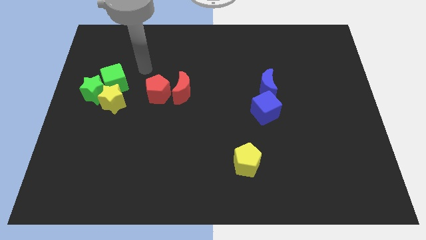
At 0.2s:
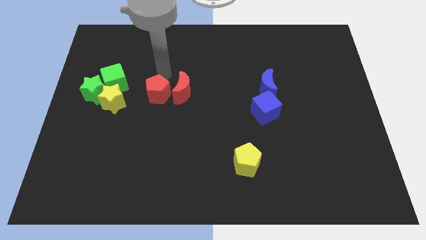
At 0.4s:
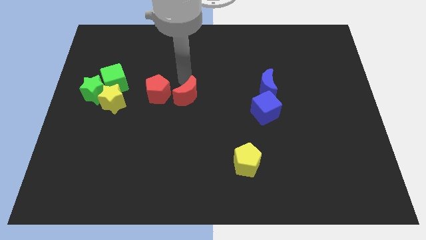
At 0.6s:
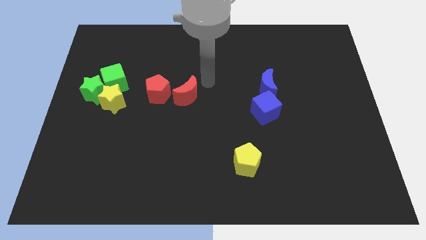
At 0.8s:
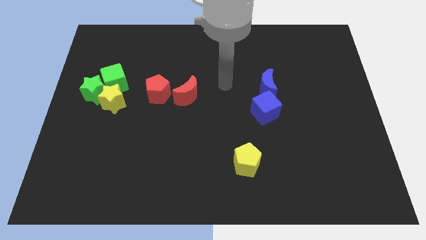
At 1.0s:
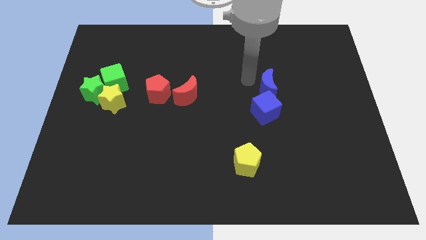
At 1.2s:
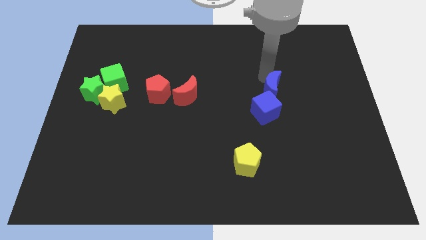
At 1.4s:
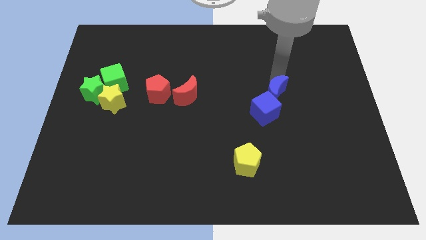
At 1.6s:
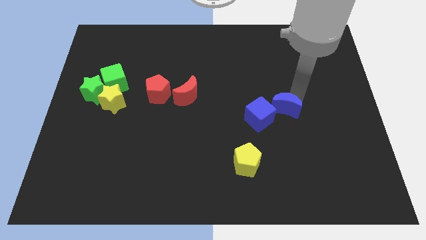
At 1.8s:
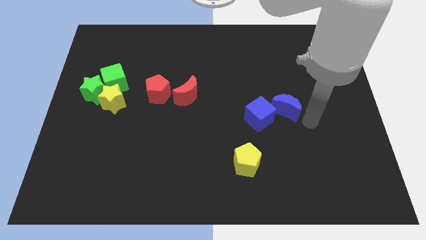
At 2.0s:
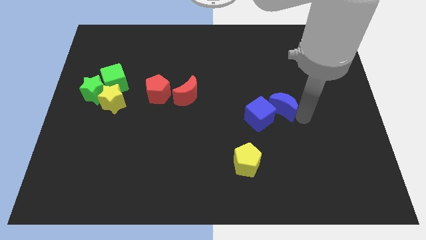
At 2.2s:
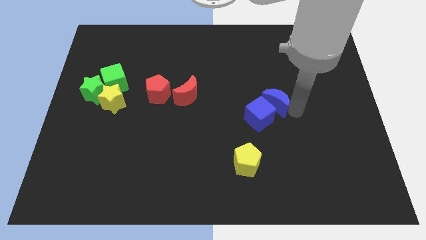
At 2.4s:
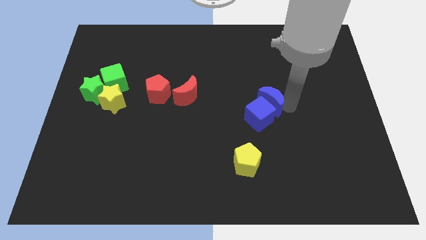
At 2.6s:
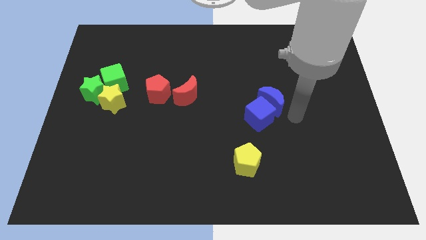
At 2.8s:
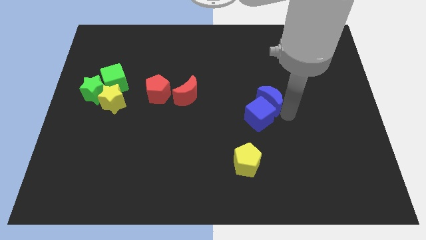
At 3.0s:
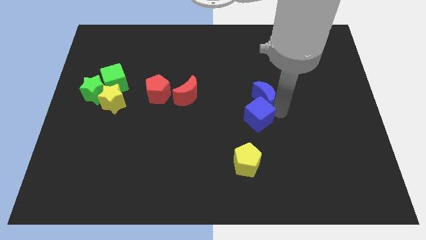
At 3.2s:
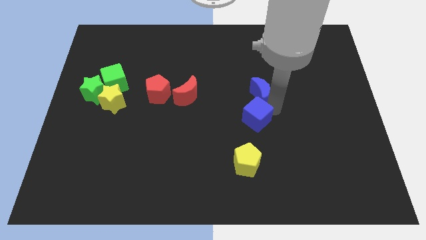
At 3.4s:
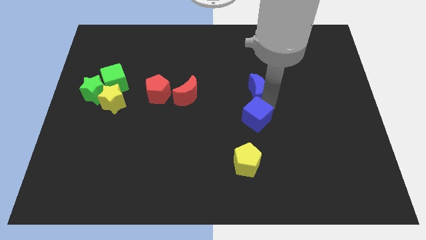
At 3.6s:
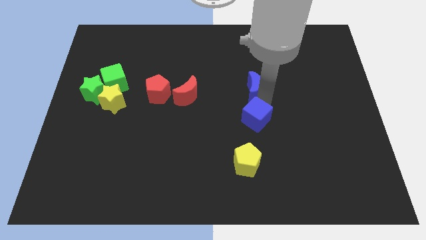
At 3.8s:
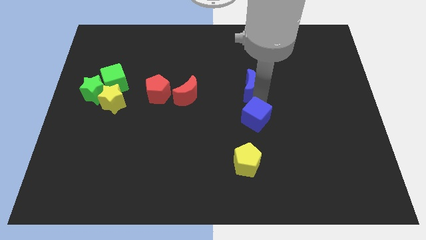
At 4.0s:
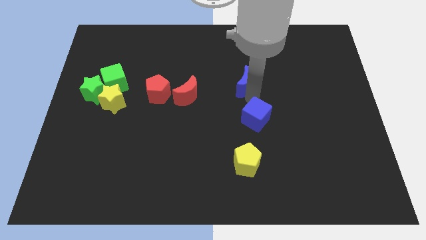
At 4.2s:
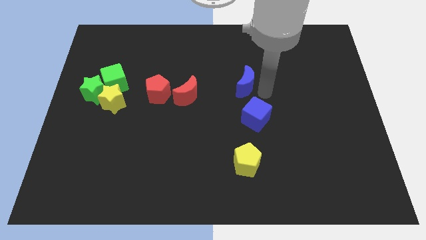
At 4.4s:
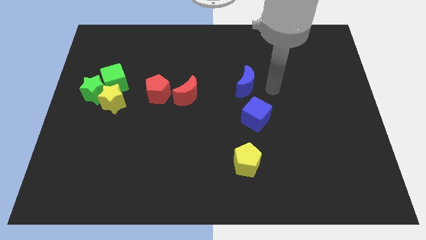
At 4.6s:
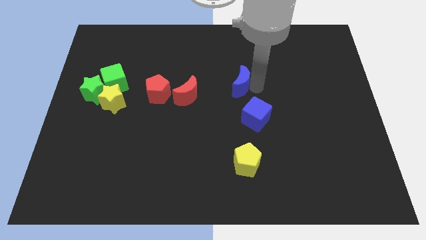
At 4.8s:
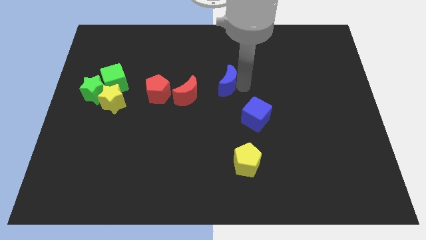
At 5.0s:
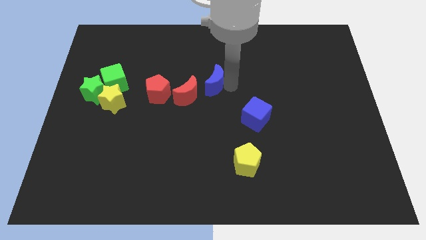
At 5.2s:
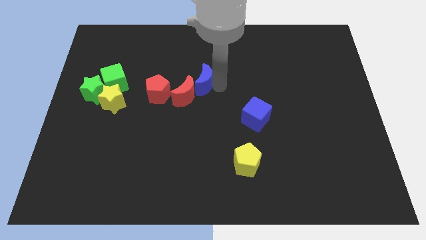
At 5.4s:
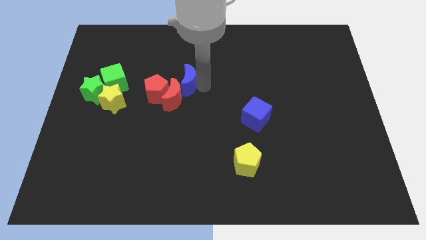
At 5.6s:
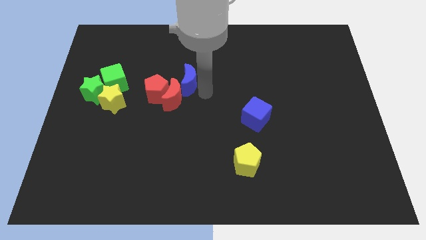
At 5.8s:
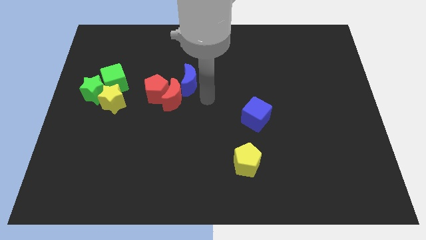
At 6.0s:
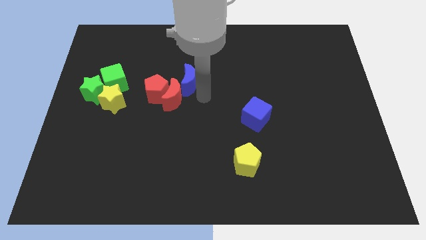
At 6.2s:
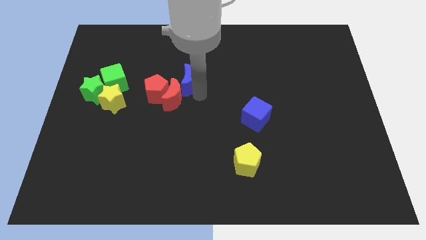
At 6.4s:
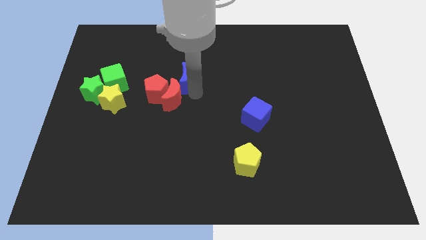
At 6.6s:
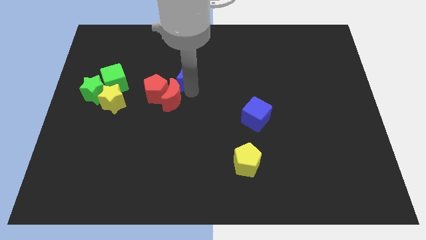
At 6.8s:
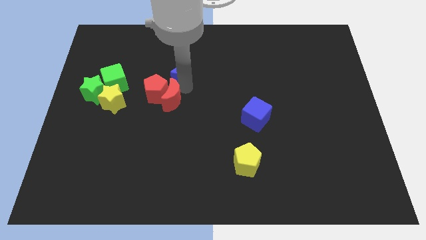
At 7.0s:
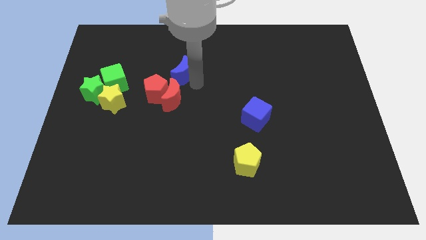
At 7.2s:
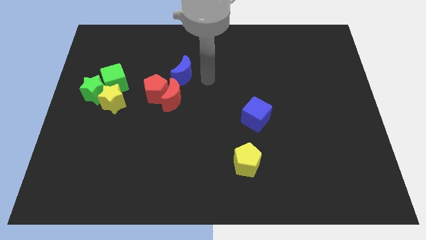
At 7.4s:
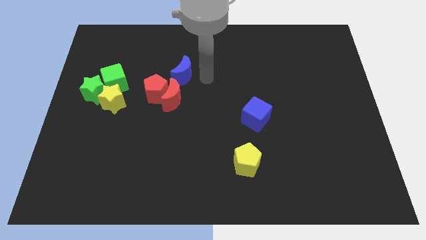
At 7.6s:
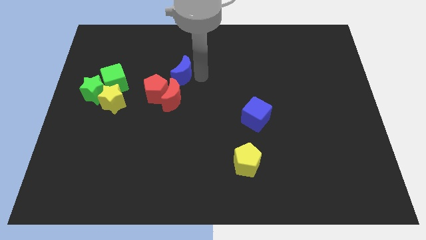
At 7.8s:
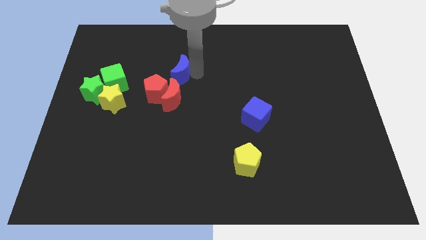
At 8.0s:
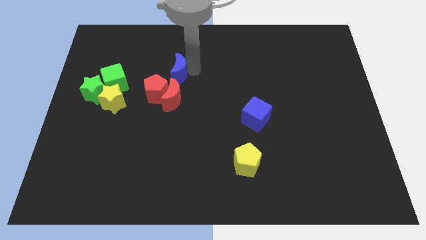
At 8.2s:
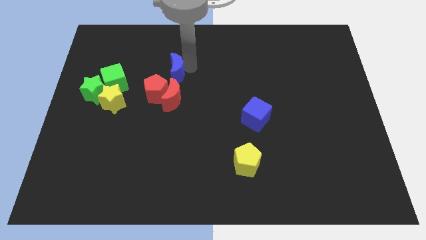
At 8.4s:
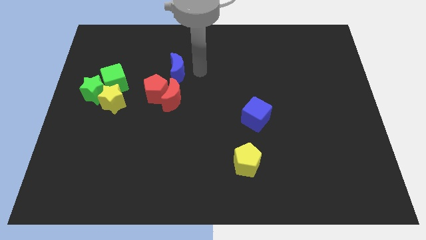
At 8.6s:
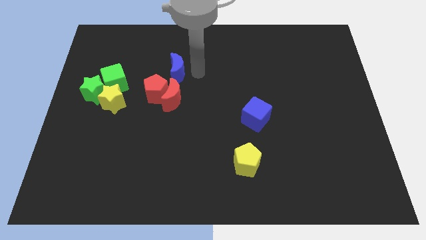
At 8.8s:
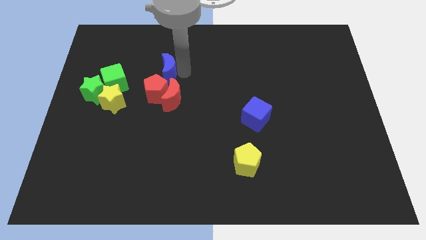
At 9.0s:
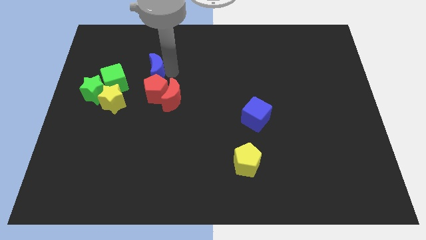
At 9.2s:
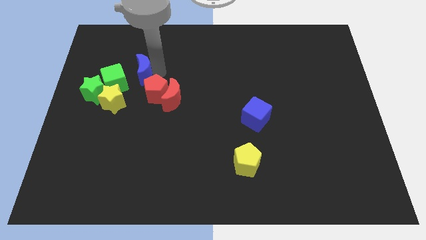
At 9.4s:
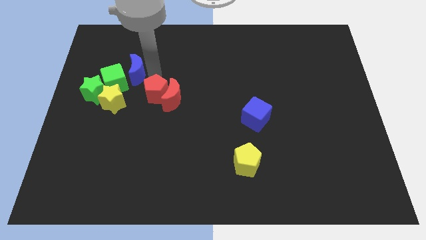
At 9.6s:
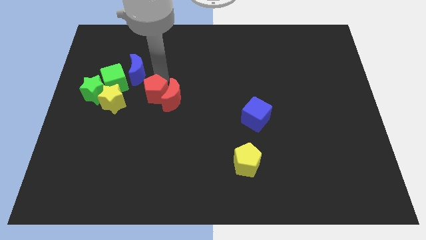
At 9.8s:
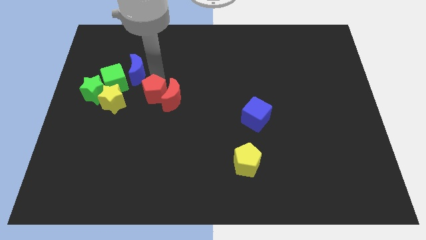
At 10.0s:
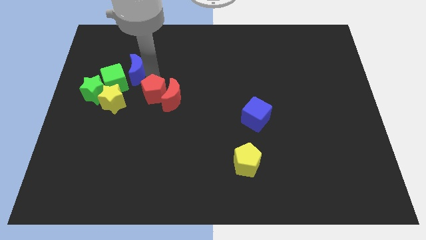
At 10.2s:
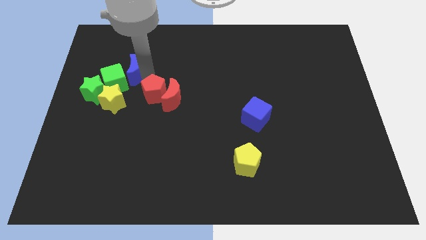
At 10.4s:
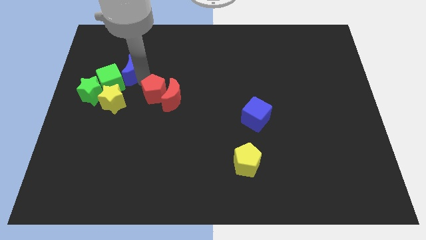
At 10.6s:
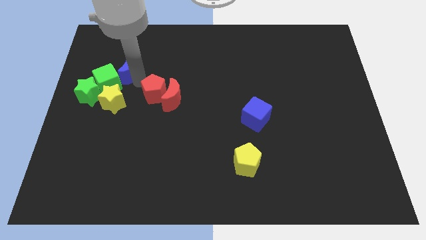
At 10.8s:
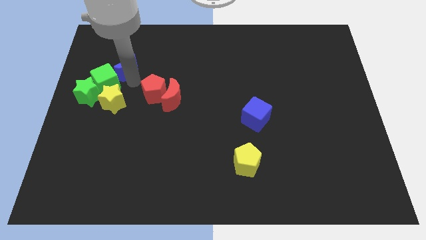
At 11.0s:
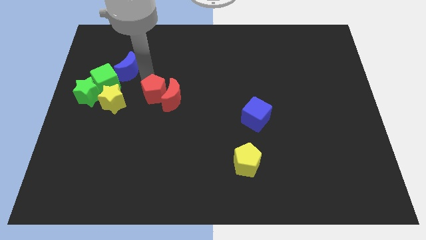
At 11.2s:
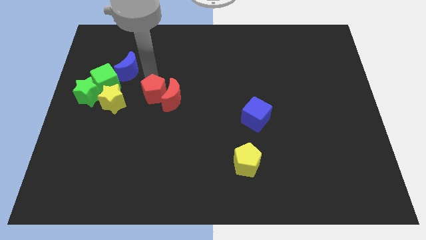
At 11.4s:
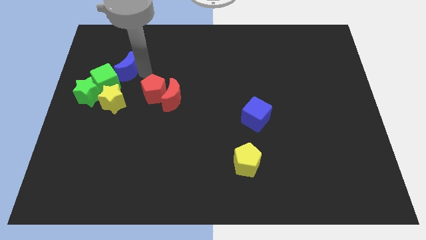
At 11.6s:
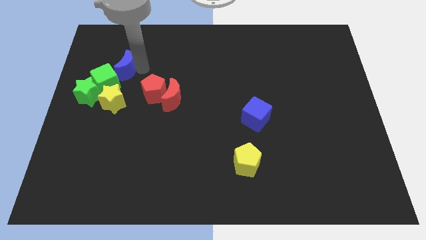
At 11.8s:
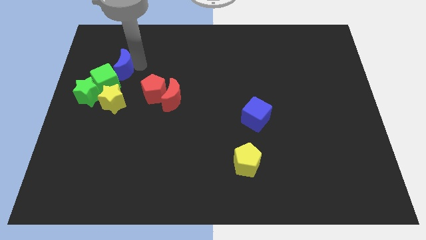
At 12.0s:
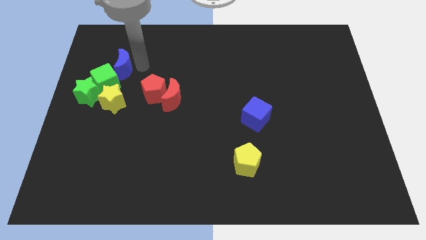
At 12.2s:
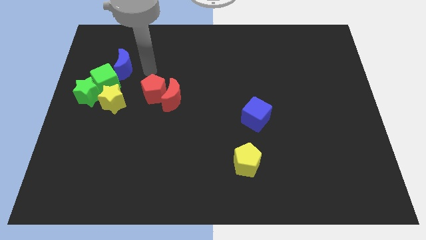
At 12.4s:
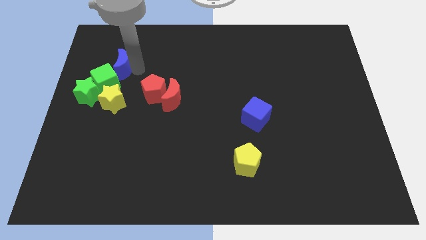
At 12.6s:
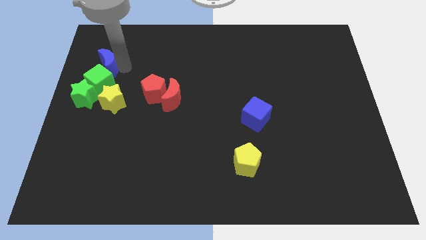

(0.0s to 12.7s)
put the blue moon to the top side of the green star

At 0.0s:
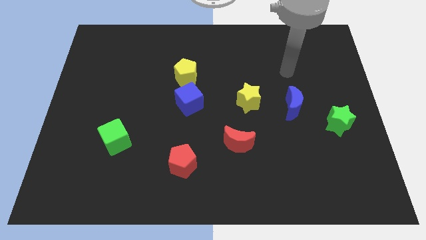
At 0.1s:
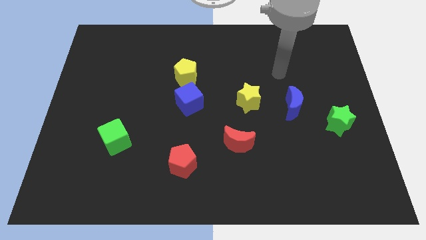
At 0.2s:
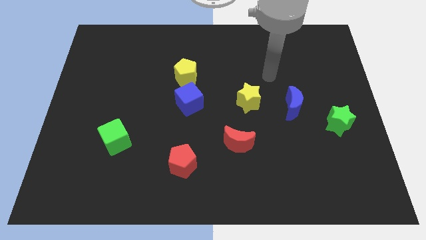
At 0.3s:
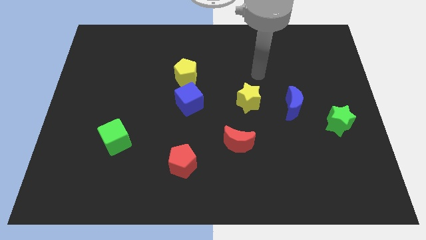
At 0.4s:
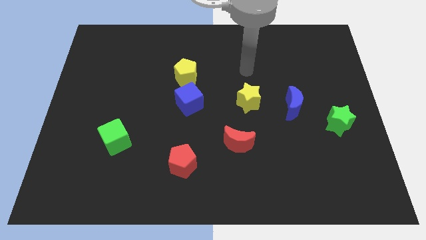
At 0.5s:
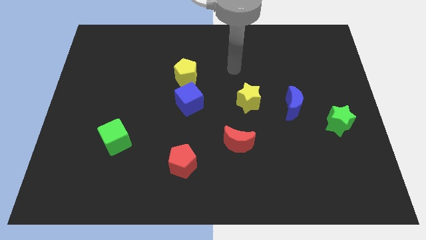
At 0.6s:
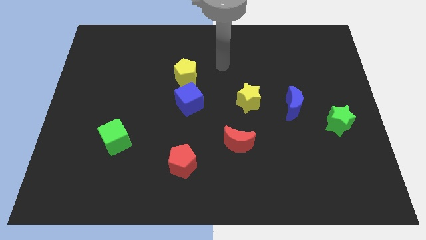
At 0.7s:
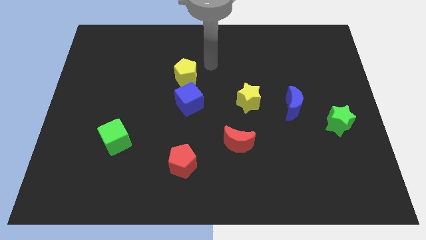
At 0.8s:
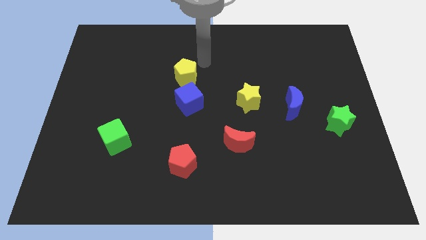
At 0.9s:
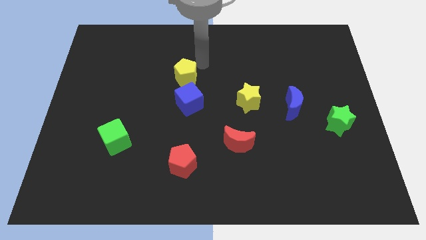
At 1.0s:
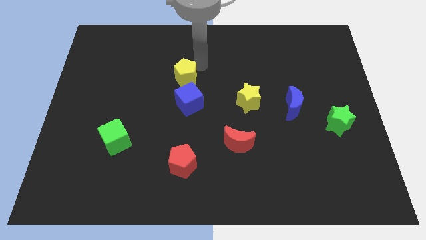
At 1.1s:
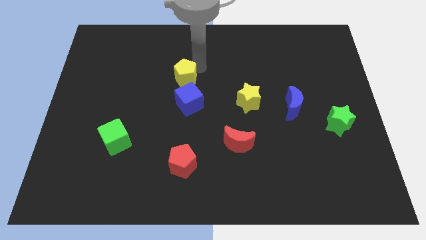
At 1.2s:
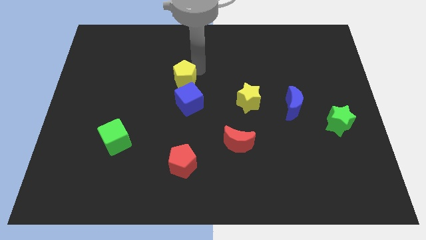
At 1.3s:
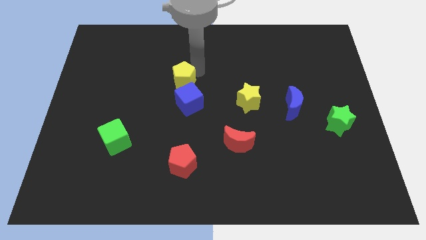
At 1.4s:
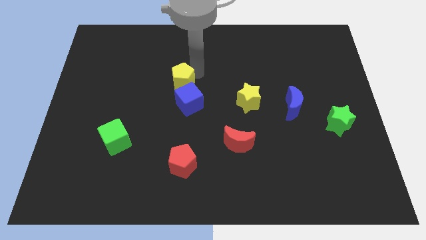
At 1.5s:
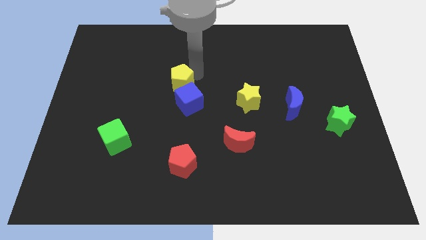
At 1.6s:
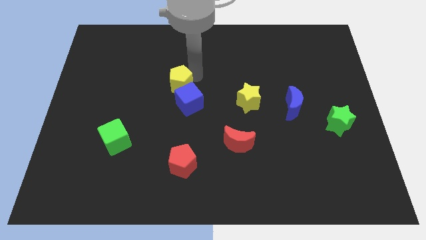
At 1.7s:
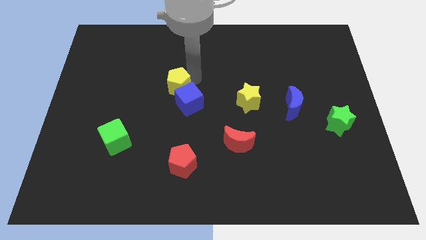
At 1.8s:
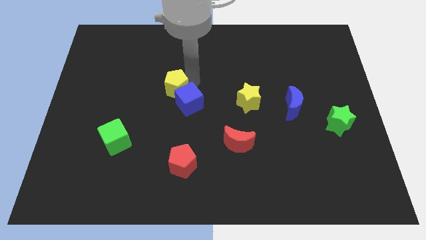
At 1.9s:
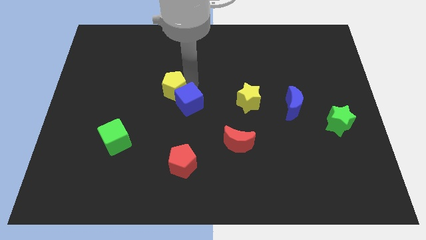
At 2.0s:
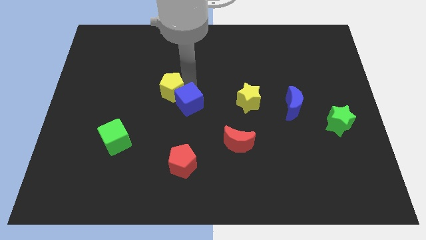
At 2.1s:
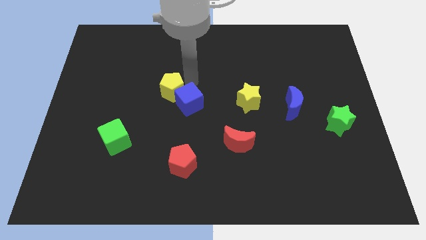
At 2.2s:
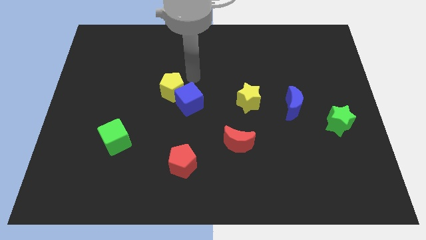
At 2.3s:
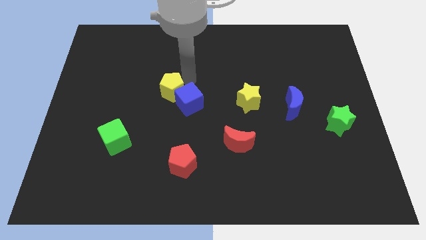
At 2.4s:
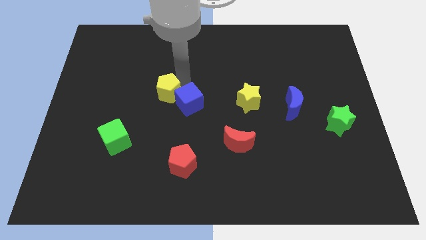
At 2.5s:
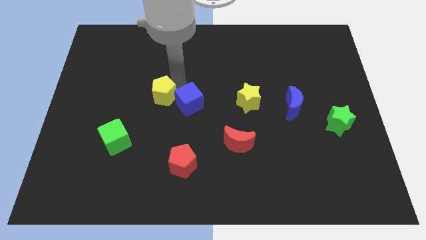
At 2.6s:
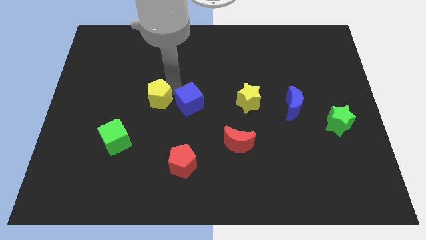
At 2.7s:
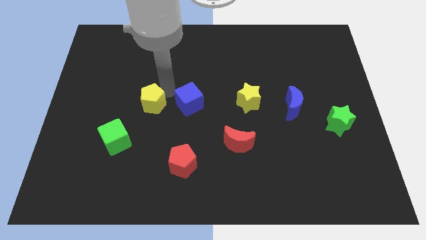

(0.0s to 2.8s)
push the yellow pentagon to the top right of the green cube
